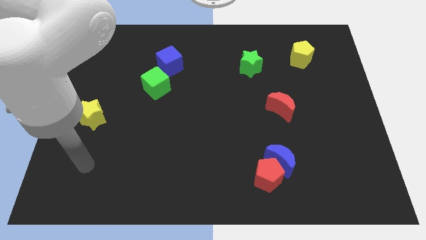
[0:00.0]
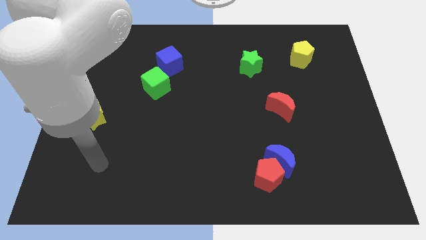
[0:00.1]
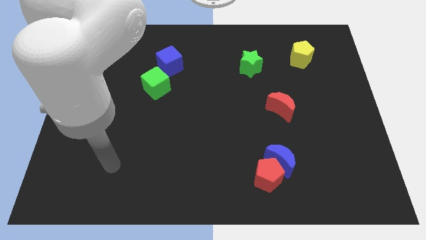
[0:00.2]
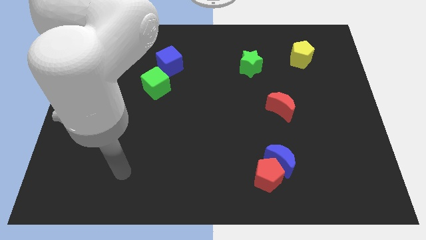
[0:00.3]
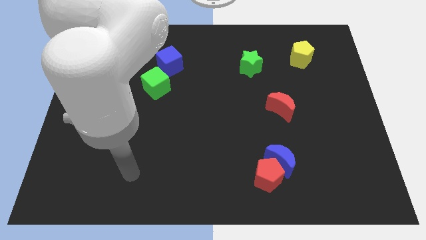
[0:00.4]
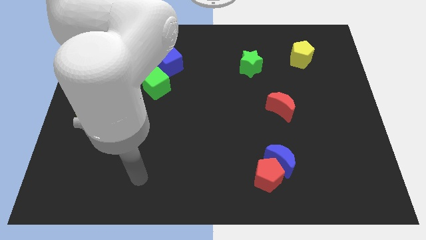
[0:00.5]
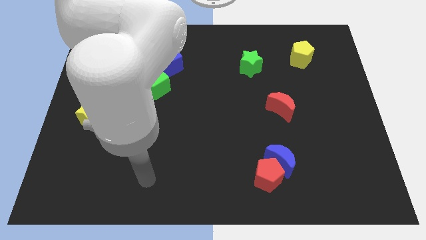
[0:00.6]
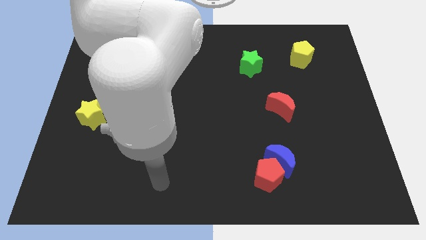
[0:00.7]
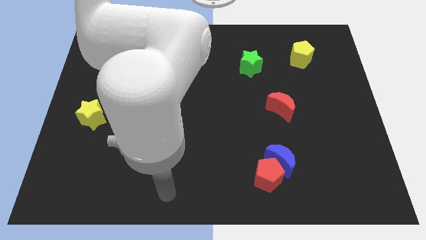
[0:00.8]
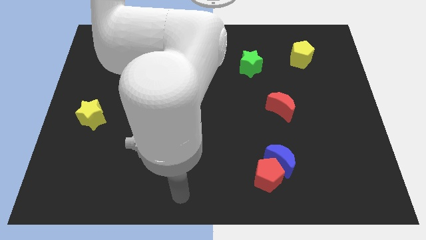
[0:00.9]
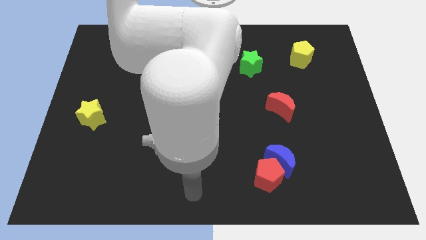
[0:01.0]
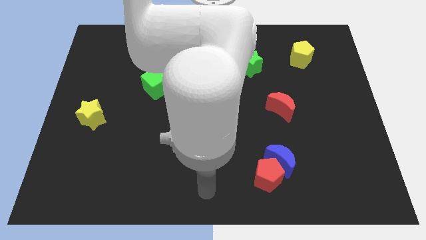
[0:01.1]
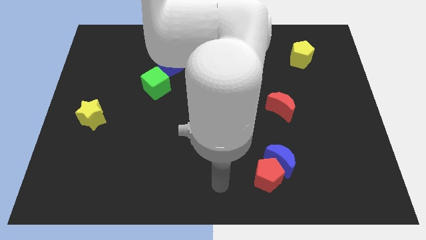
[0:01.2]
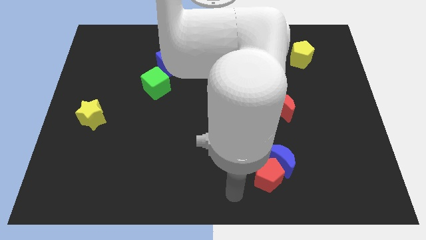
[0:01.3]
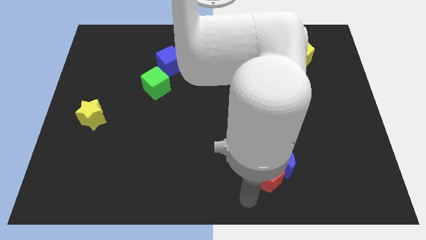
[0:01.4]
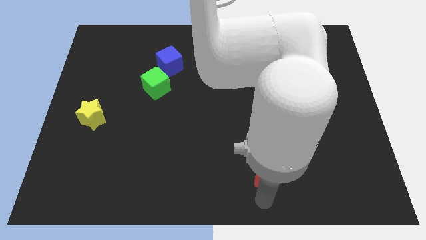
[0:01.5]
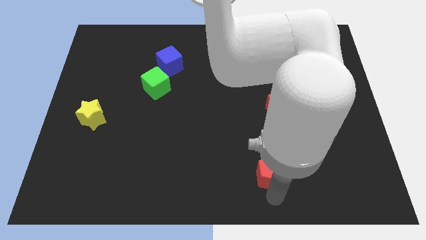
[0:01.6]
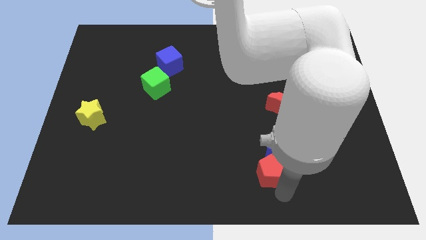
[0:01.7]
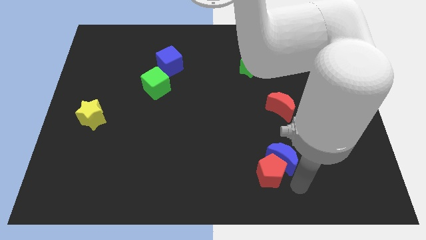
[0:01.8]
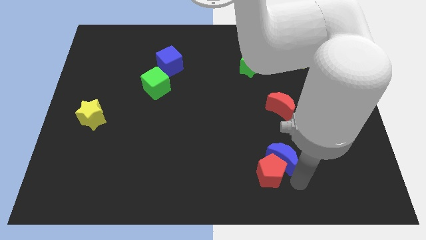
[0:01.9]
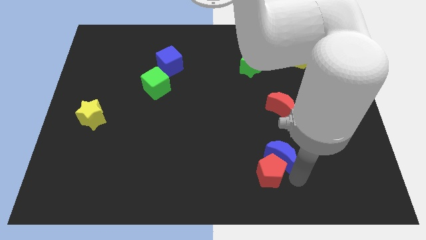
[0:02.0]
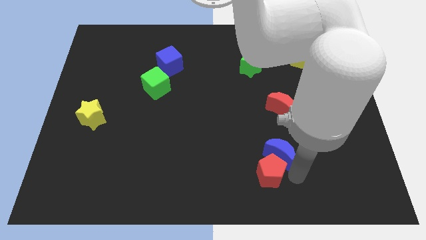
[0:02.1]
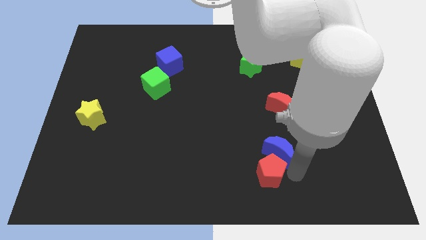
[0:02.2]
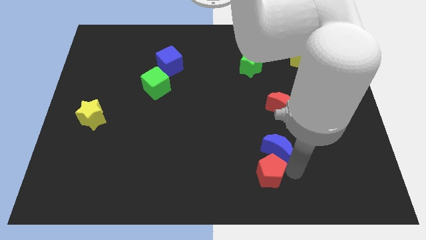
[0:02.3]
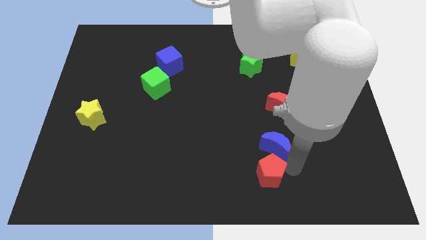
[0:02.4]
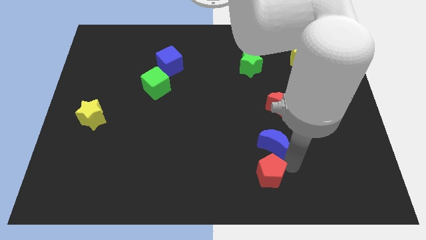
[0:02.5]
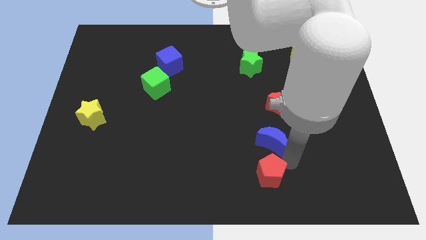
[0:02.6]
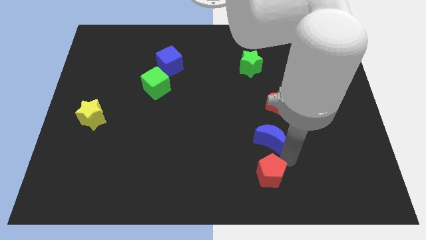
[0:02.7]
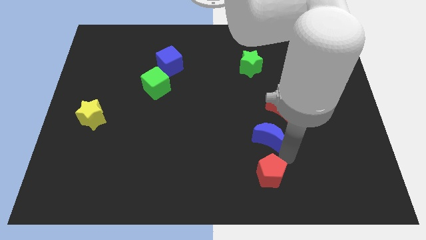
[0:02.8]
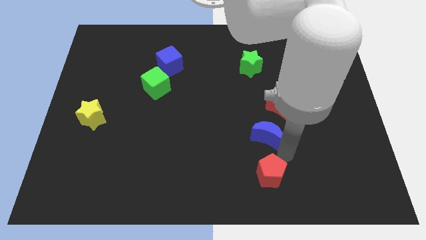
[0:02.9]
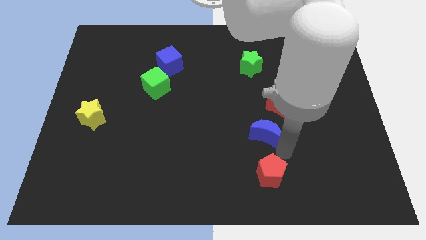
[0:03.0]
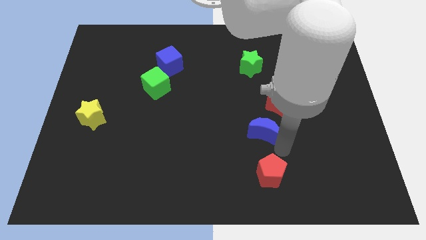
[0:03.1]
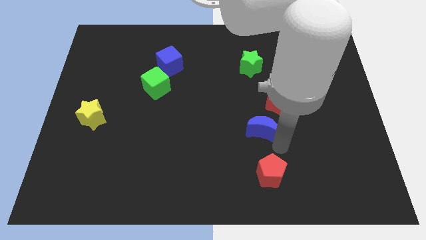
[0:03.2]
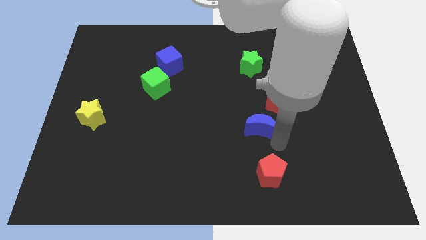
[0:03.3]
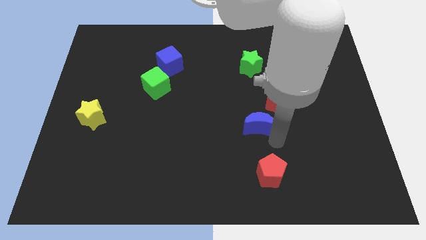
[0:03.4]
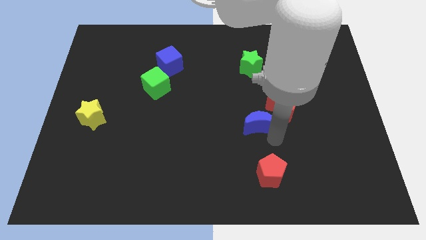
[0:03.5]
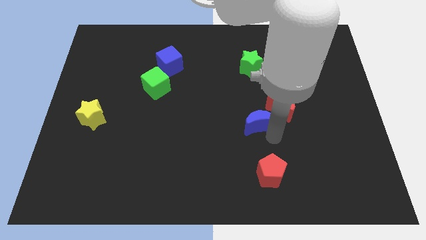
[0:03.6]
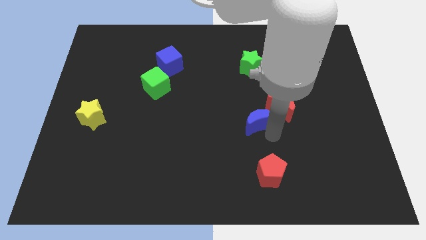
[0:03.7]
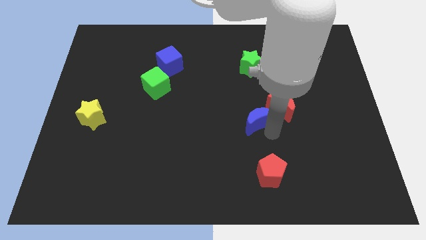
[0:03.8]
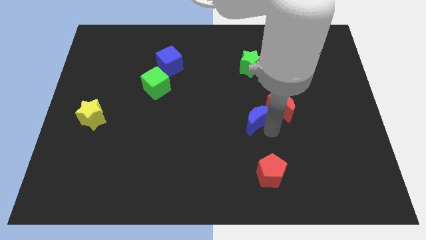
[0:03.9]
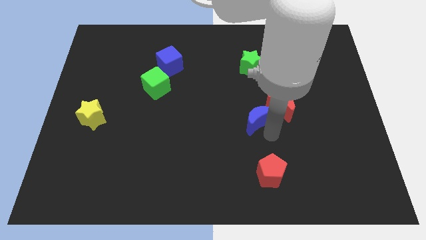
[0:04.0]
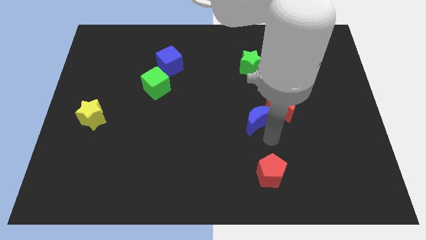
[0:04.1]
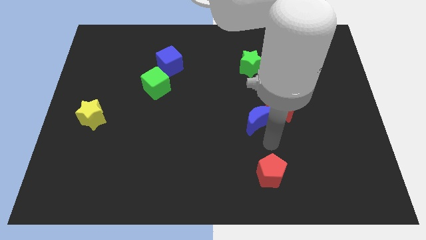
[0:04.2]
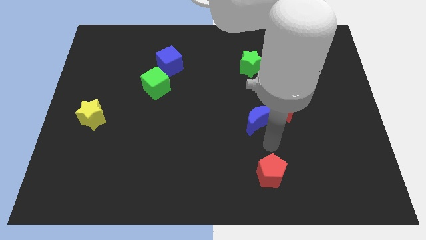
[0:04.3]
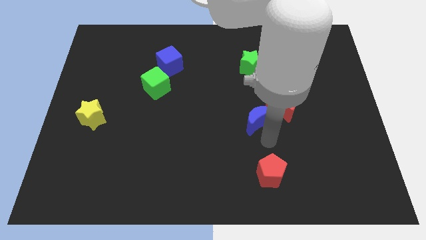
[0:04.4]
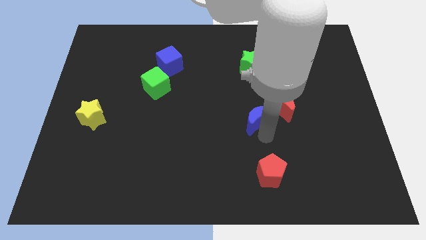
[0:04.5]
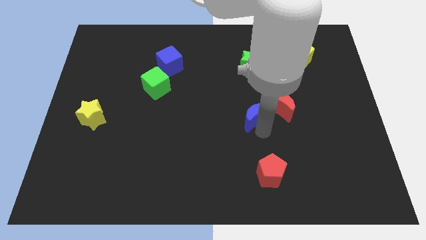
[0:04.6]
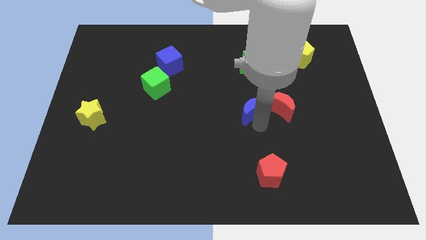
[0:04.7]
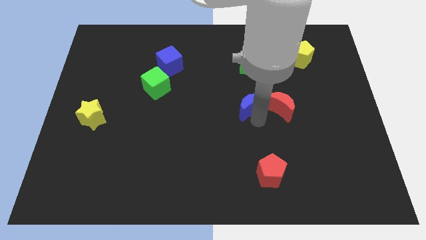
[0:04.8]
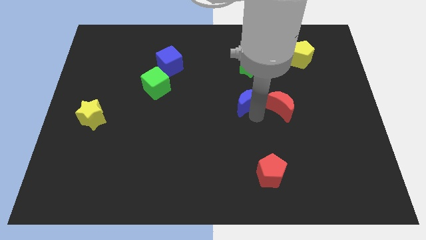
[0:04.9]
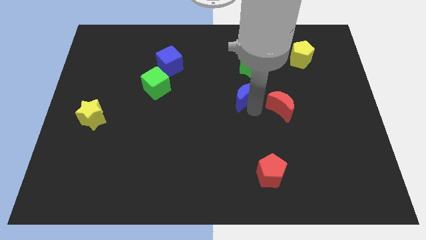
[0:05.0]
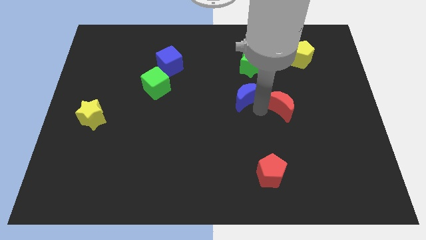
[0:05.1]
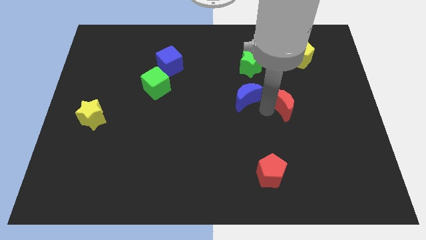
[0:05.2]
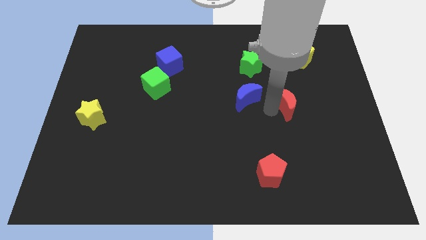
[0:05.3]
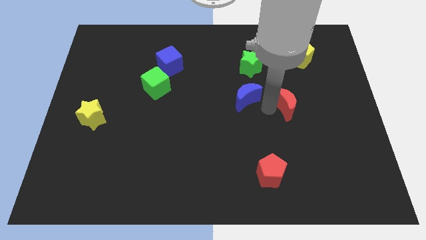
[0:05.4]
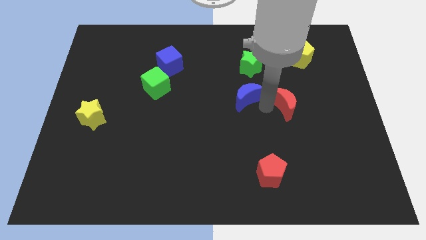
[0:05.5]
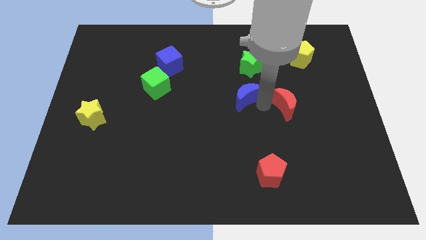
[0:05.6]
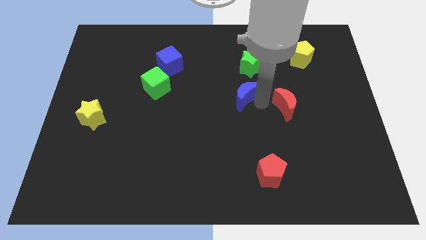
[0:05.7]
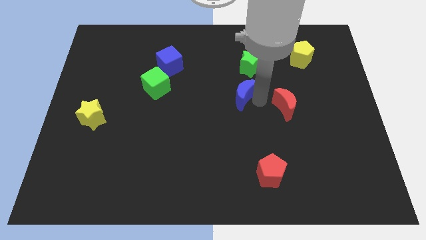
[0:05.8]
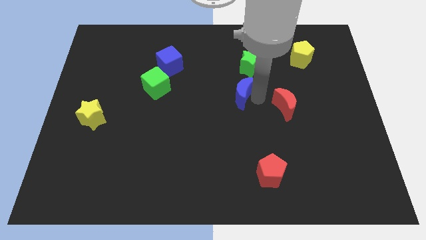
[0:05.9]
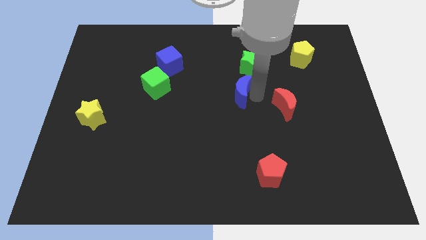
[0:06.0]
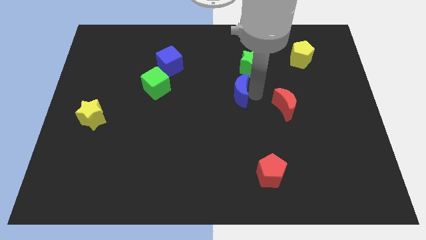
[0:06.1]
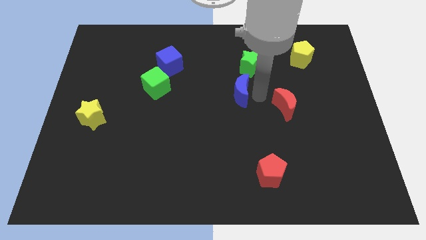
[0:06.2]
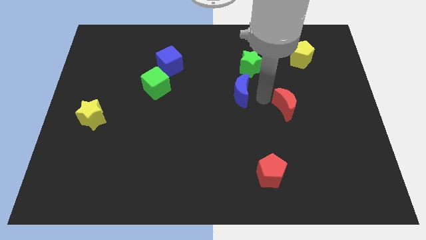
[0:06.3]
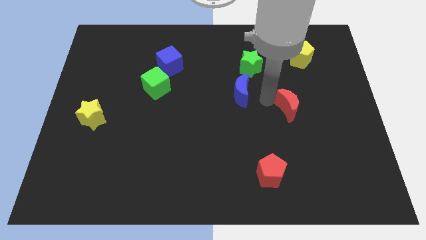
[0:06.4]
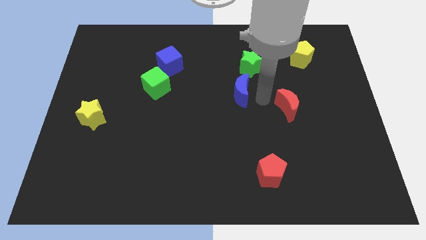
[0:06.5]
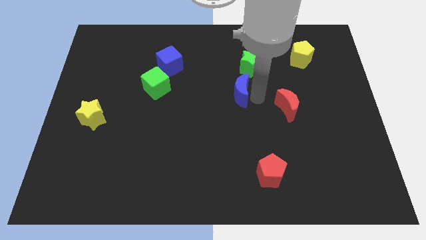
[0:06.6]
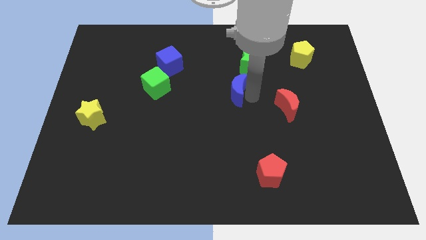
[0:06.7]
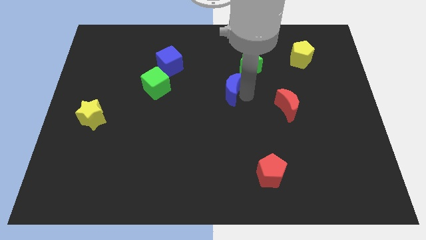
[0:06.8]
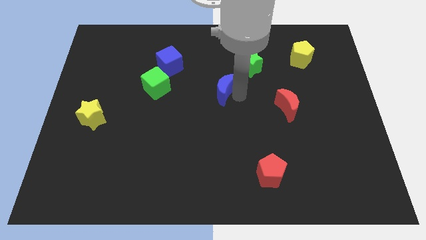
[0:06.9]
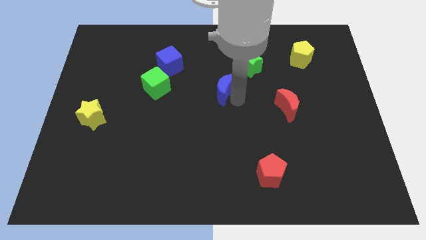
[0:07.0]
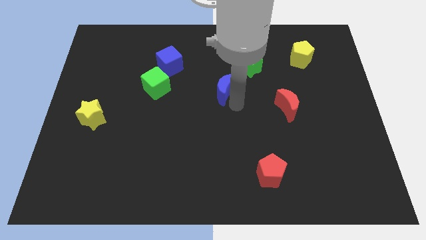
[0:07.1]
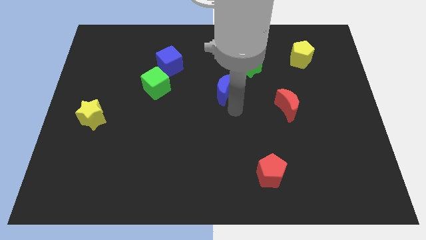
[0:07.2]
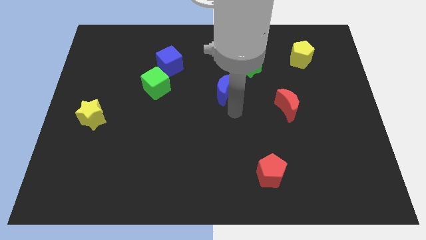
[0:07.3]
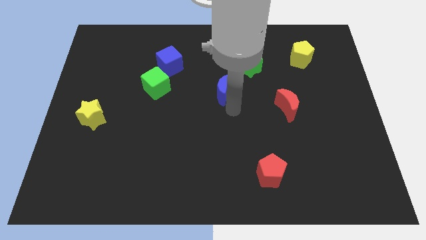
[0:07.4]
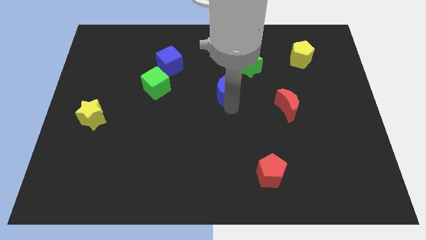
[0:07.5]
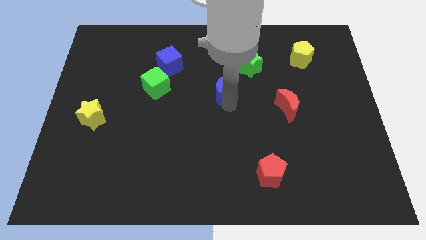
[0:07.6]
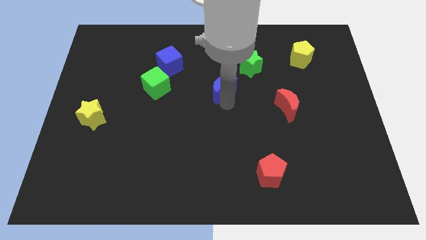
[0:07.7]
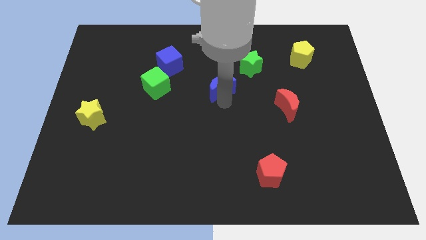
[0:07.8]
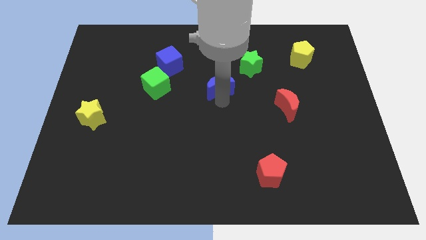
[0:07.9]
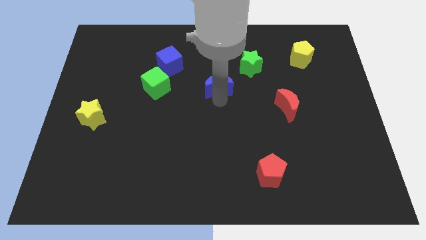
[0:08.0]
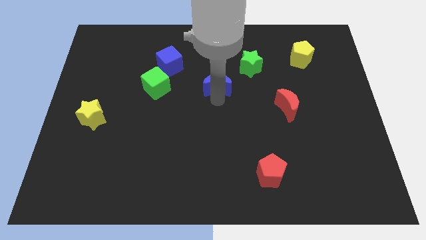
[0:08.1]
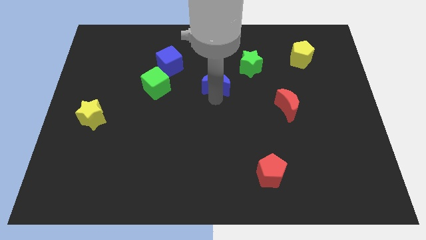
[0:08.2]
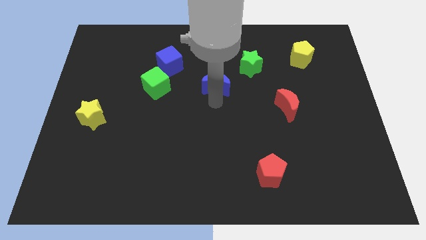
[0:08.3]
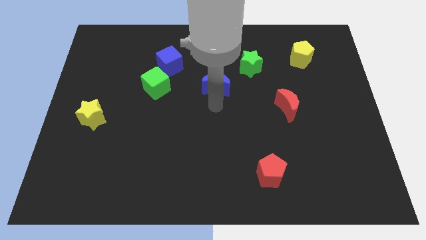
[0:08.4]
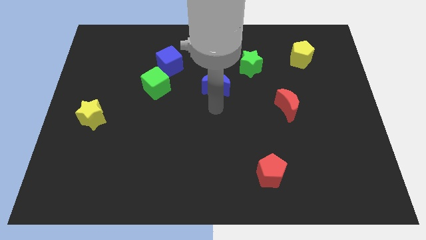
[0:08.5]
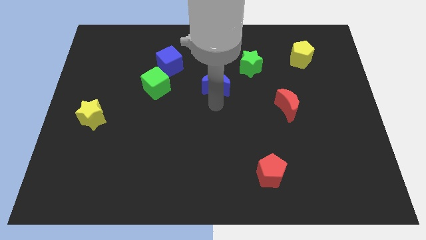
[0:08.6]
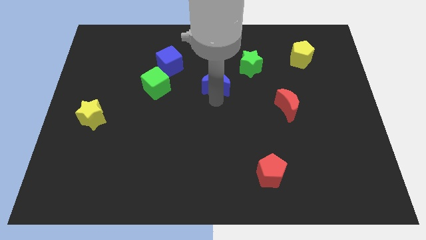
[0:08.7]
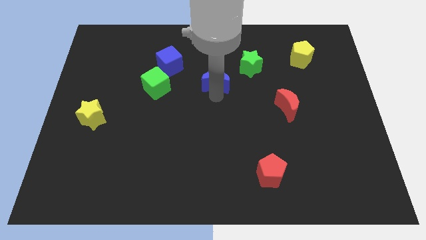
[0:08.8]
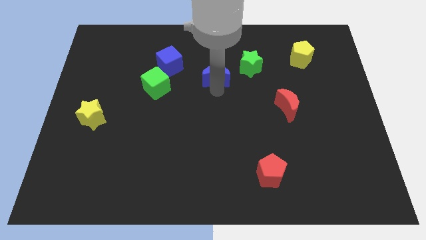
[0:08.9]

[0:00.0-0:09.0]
slide the blue moon to the right side of the blue cube
